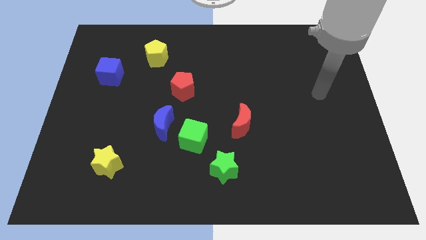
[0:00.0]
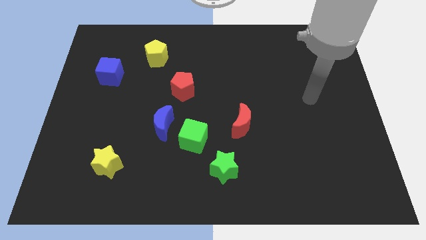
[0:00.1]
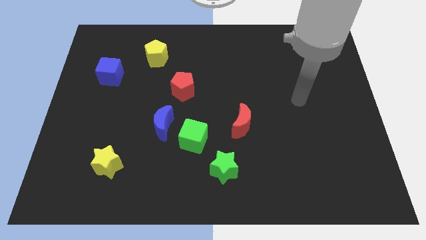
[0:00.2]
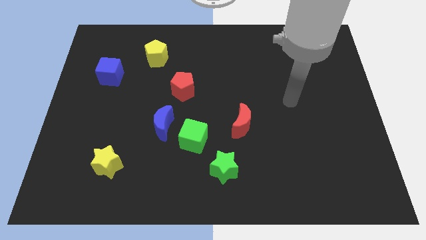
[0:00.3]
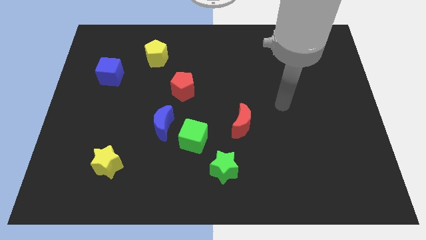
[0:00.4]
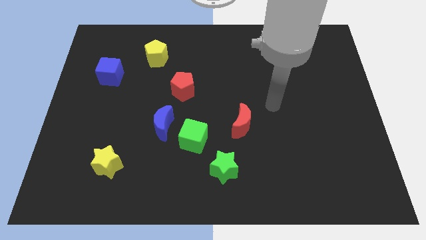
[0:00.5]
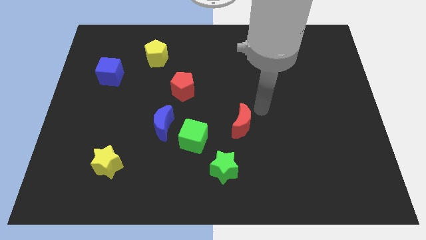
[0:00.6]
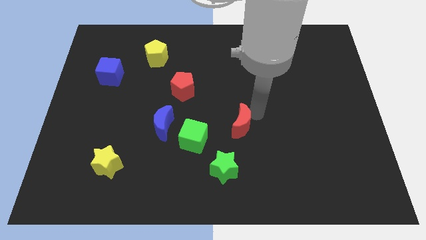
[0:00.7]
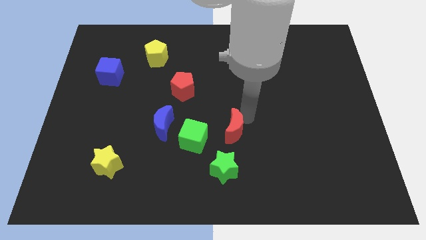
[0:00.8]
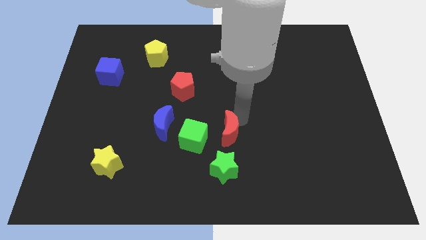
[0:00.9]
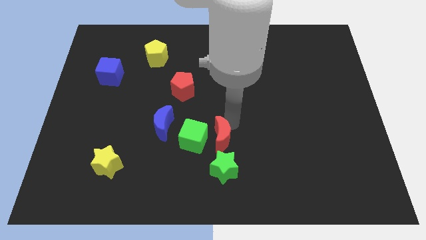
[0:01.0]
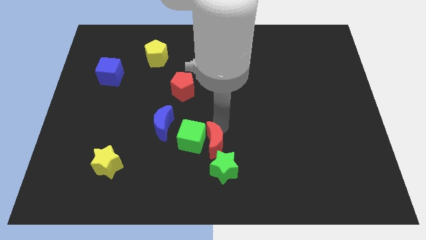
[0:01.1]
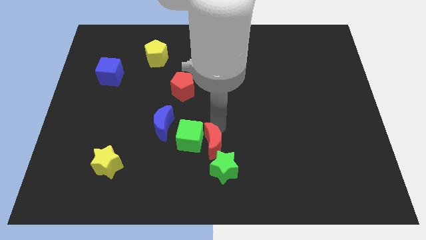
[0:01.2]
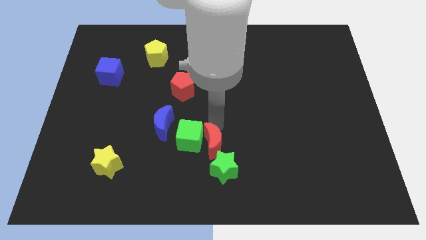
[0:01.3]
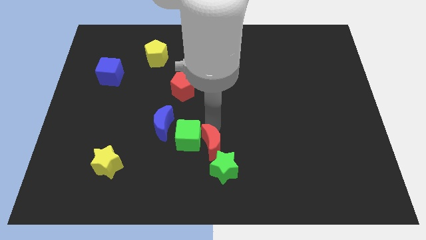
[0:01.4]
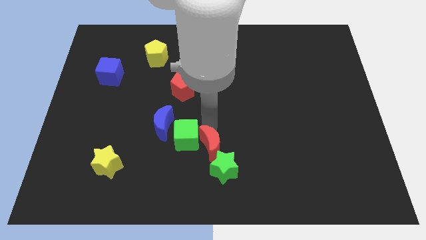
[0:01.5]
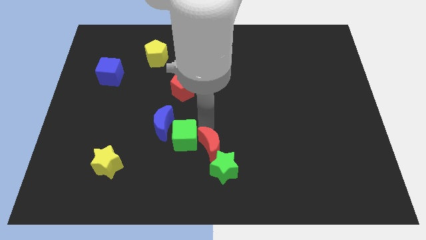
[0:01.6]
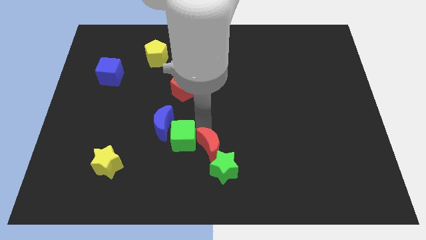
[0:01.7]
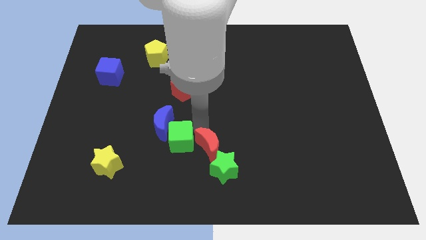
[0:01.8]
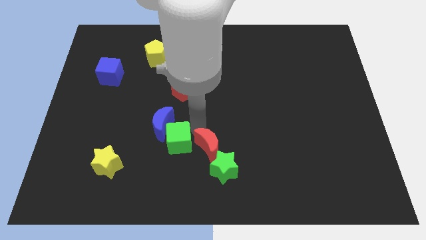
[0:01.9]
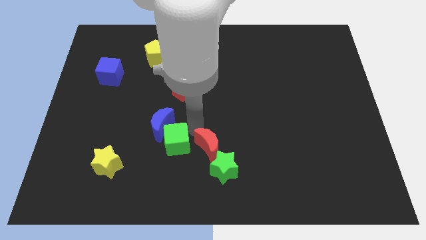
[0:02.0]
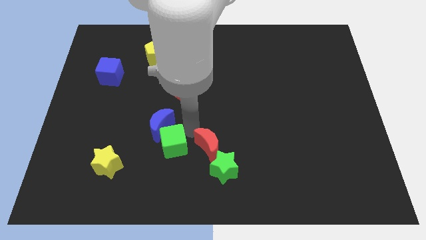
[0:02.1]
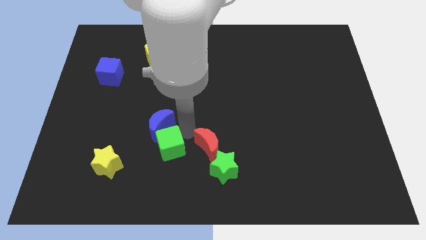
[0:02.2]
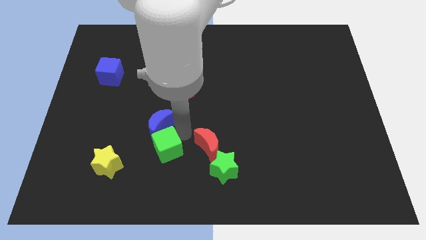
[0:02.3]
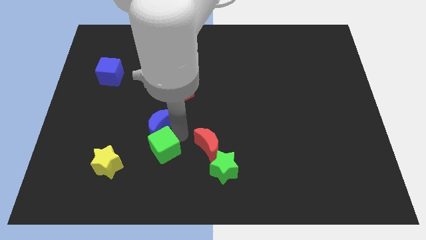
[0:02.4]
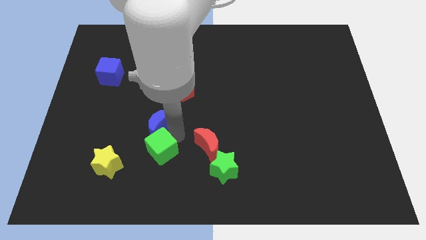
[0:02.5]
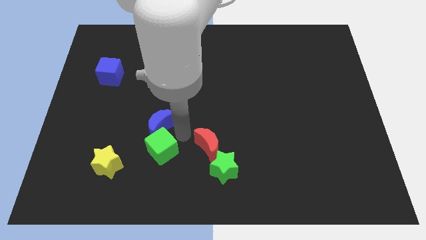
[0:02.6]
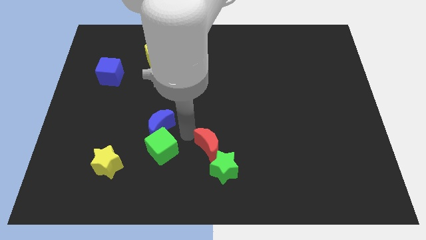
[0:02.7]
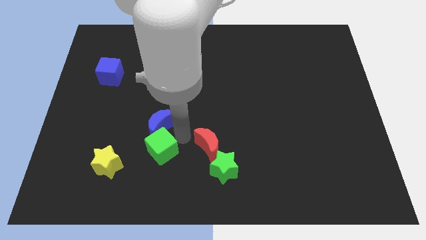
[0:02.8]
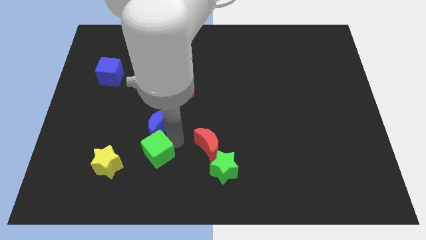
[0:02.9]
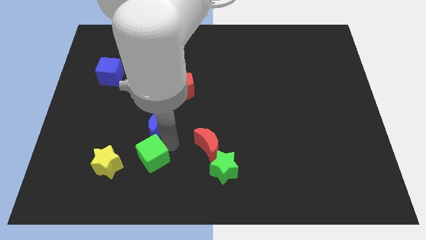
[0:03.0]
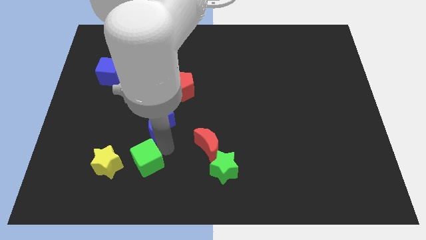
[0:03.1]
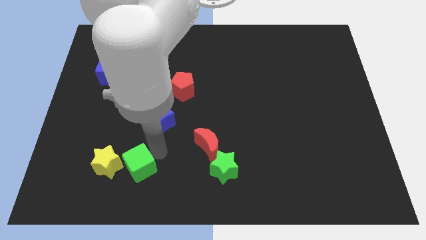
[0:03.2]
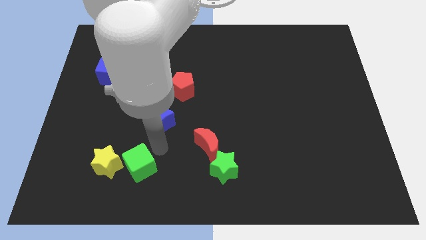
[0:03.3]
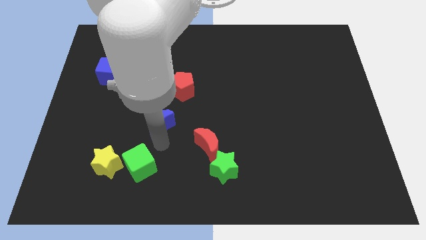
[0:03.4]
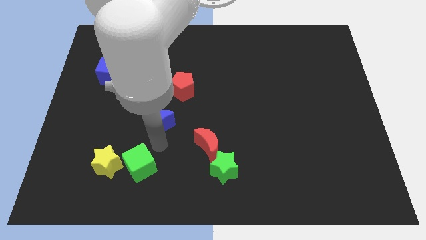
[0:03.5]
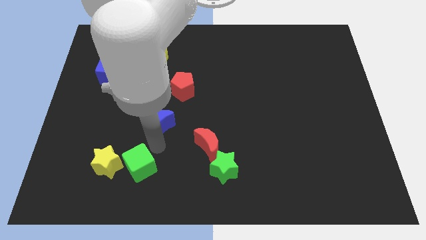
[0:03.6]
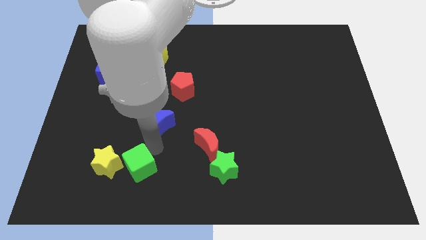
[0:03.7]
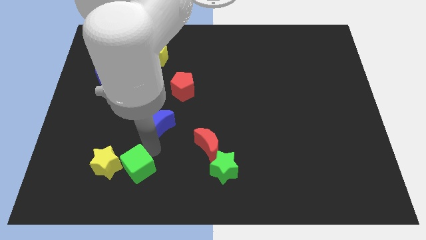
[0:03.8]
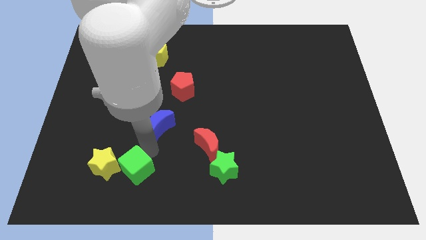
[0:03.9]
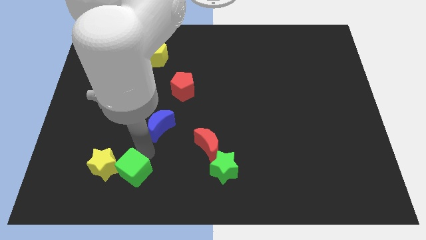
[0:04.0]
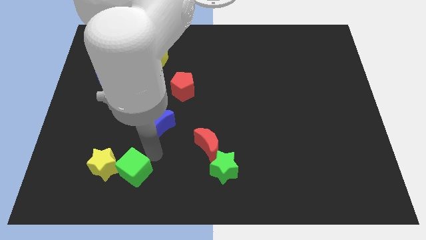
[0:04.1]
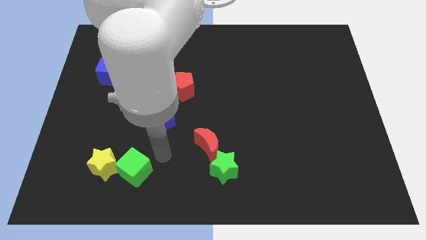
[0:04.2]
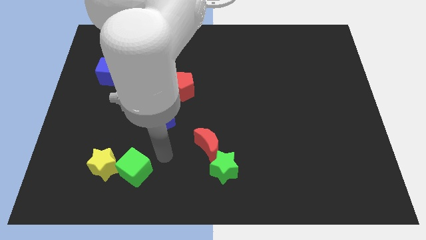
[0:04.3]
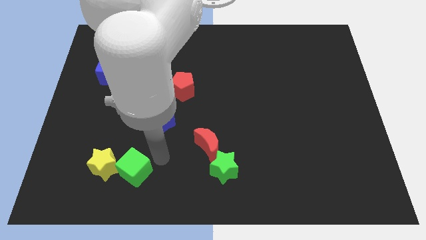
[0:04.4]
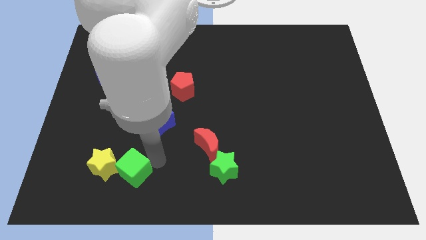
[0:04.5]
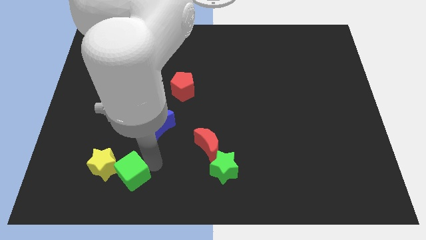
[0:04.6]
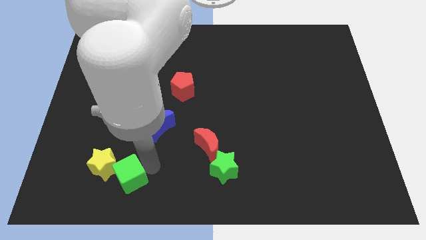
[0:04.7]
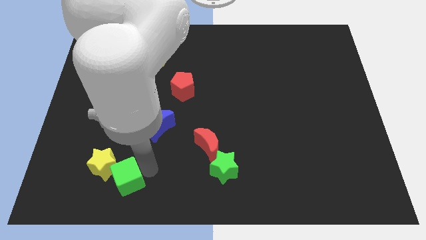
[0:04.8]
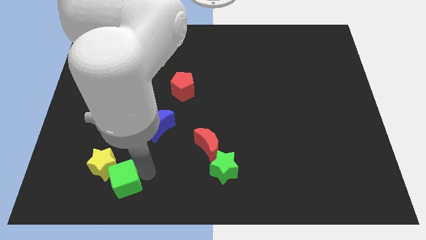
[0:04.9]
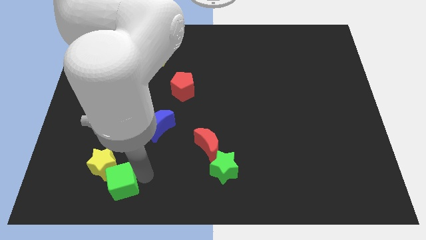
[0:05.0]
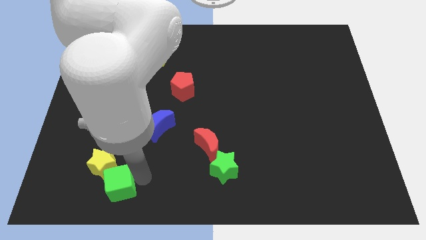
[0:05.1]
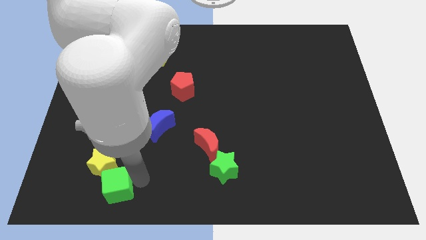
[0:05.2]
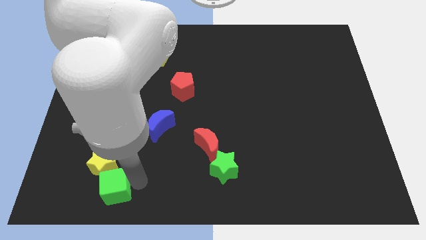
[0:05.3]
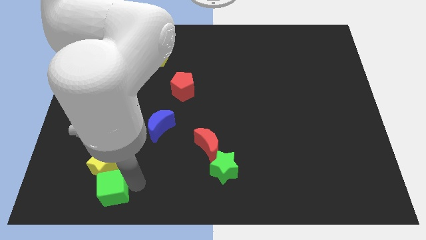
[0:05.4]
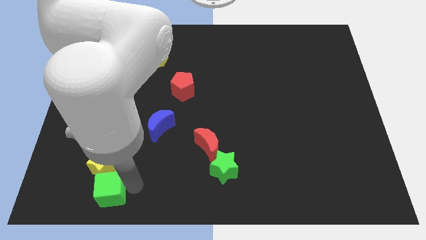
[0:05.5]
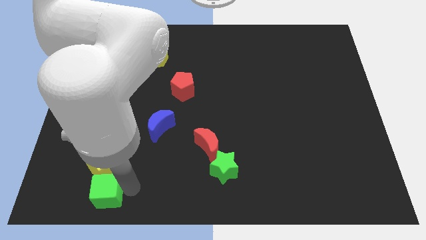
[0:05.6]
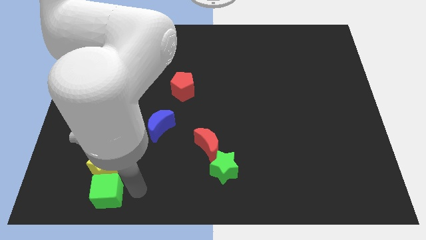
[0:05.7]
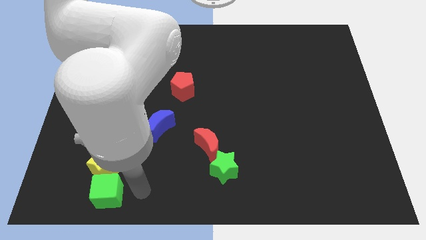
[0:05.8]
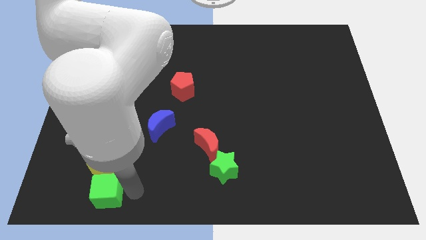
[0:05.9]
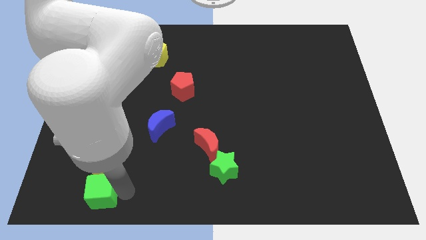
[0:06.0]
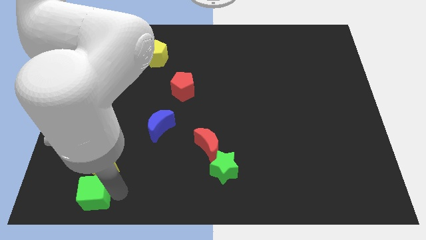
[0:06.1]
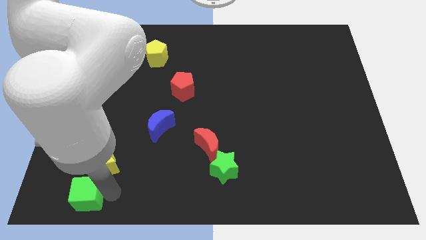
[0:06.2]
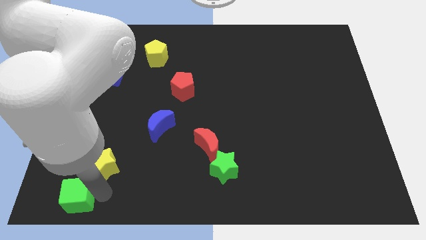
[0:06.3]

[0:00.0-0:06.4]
put the green cube to the lower left corner
